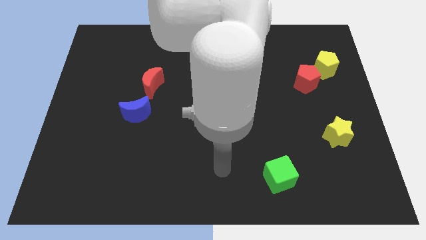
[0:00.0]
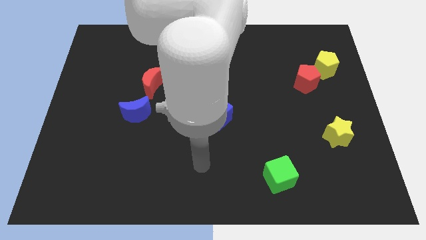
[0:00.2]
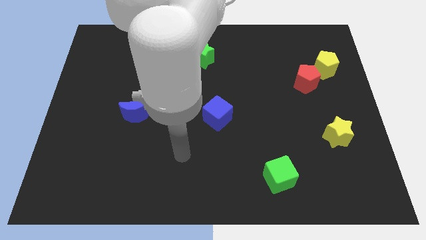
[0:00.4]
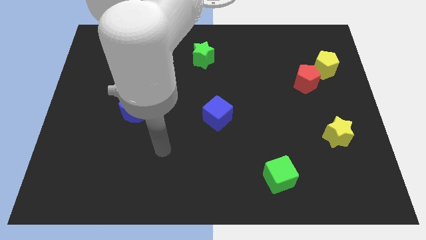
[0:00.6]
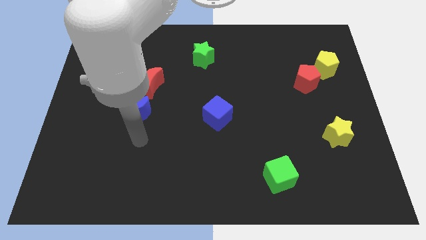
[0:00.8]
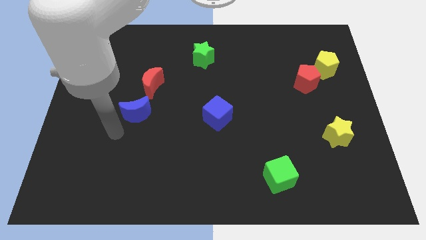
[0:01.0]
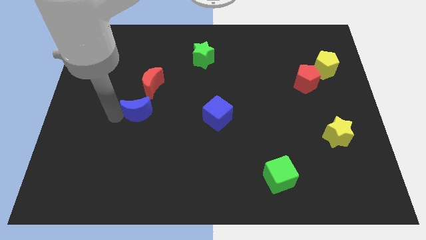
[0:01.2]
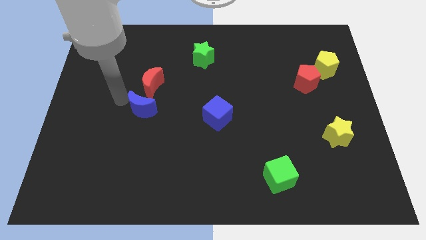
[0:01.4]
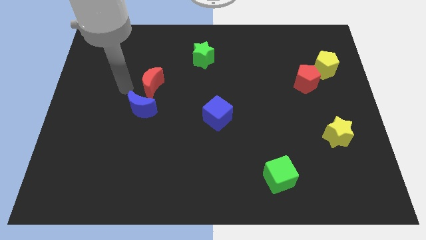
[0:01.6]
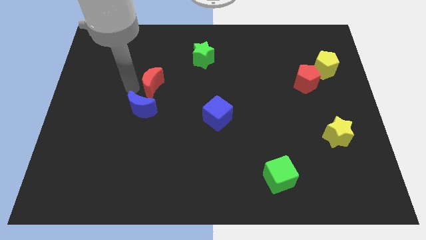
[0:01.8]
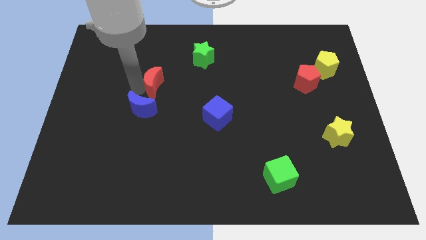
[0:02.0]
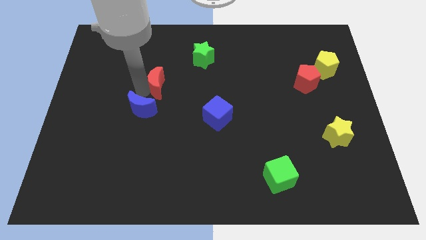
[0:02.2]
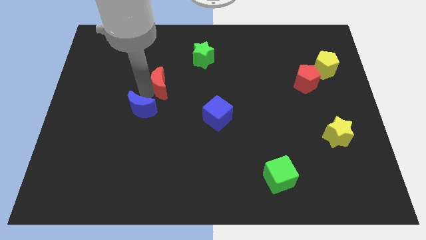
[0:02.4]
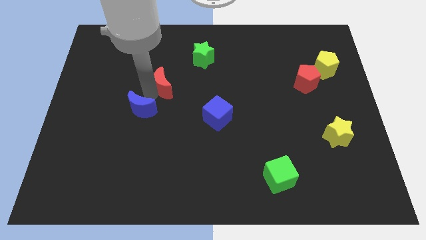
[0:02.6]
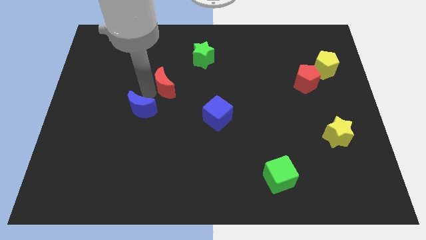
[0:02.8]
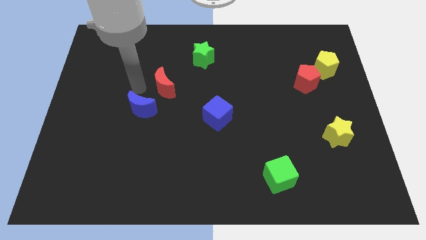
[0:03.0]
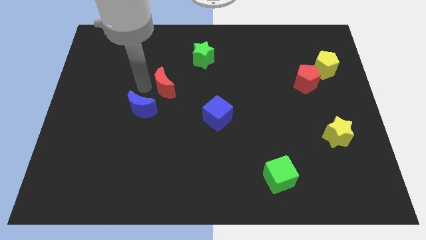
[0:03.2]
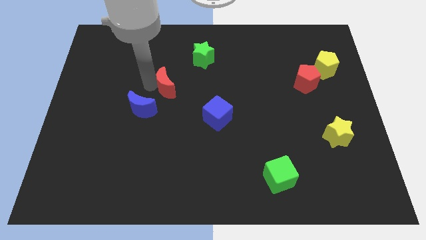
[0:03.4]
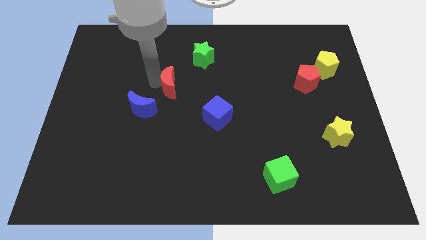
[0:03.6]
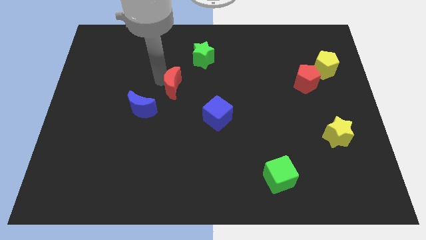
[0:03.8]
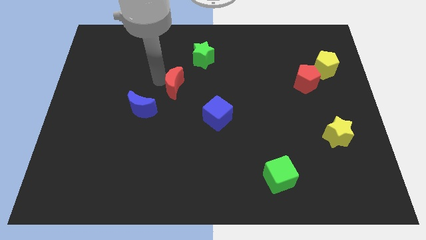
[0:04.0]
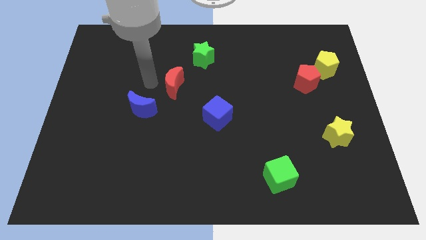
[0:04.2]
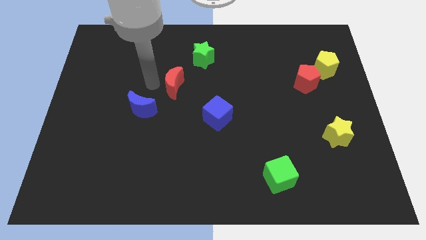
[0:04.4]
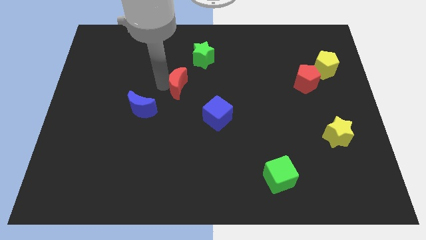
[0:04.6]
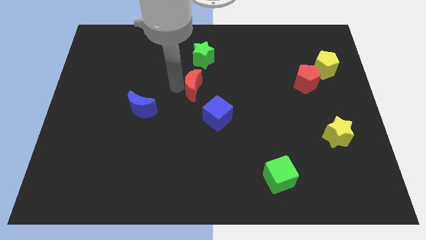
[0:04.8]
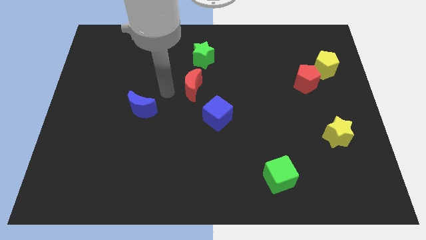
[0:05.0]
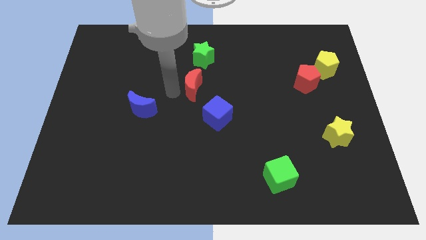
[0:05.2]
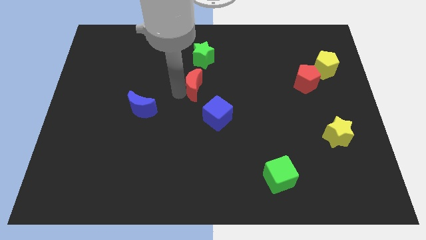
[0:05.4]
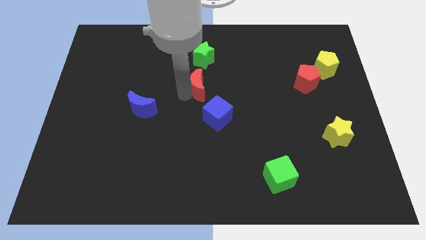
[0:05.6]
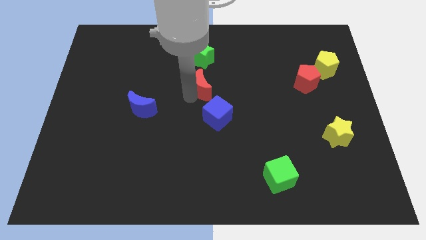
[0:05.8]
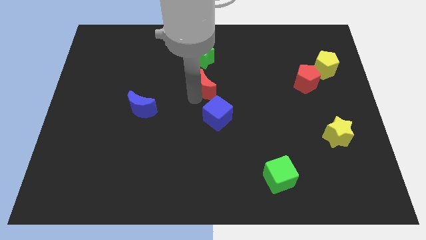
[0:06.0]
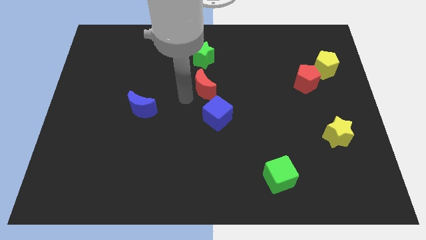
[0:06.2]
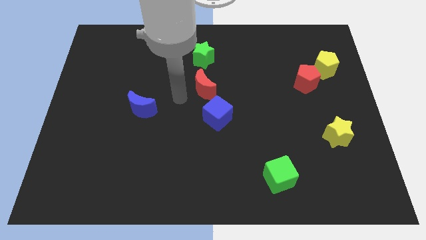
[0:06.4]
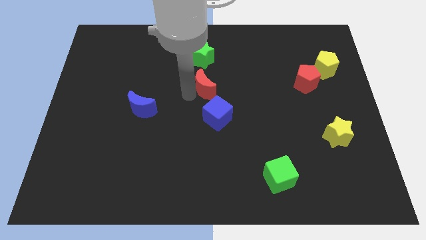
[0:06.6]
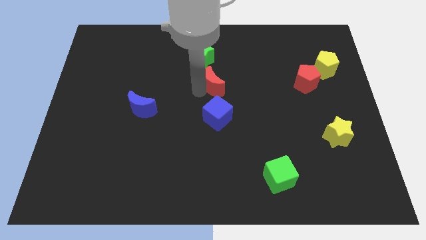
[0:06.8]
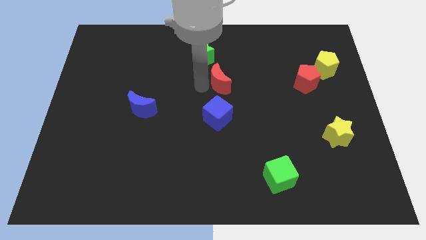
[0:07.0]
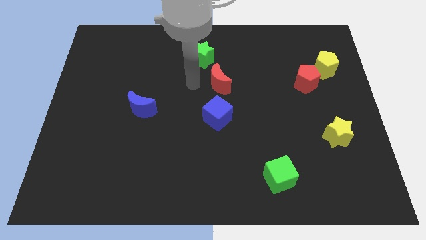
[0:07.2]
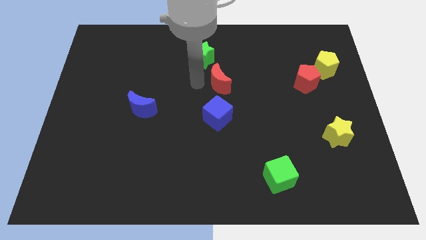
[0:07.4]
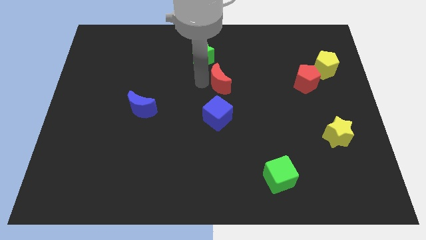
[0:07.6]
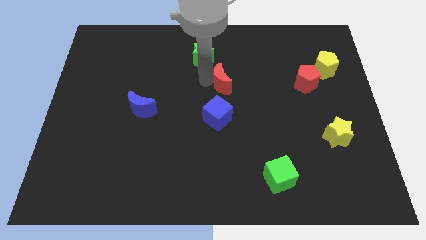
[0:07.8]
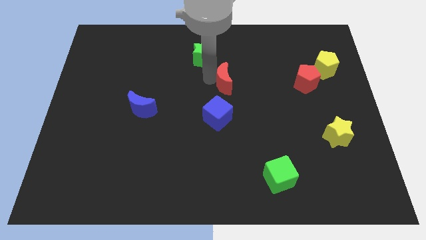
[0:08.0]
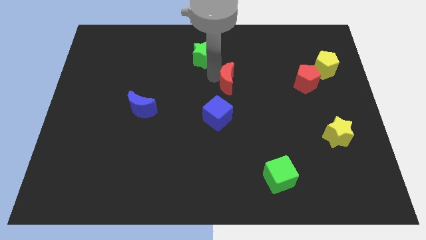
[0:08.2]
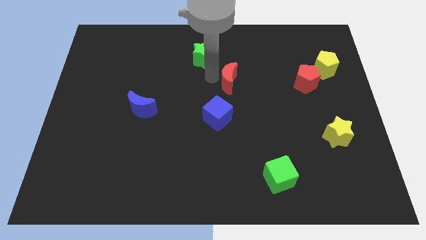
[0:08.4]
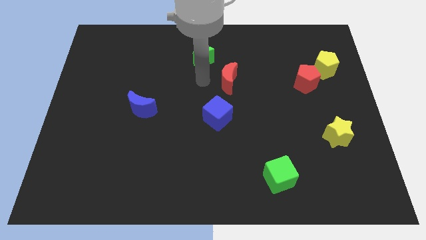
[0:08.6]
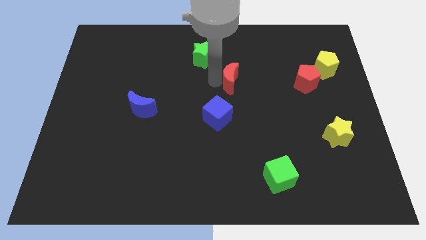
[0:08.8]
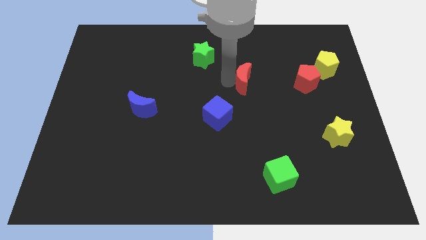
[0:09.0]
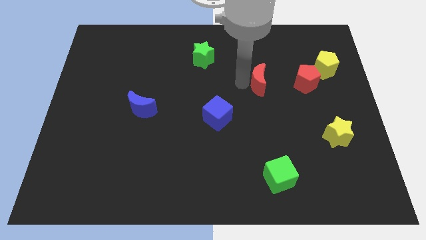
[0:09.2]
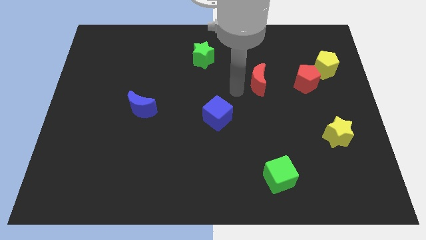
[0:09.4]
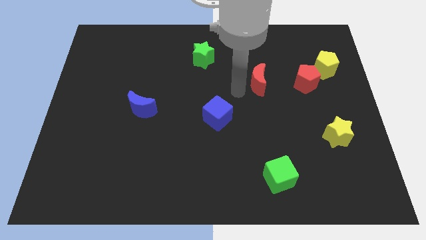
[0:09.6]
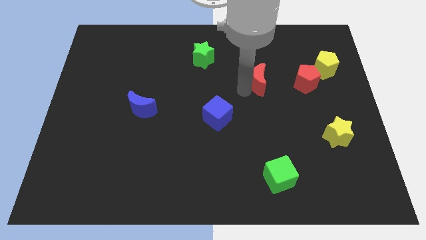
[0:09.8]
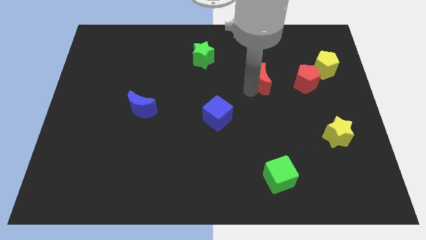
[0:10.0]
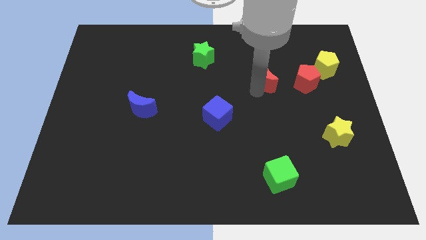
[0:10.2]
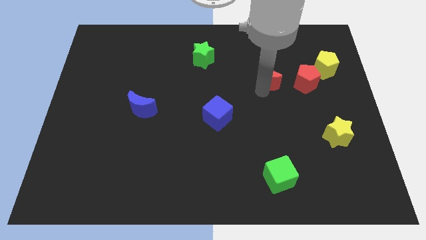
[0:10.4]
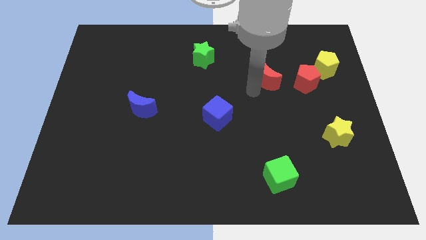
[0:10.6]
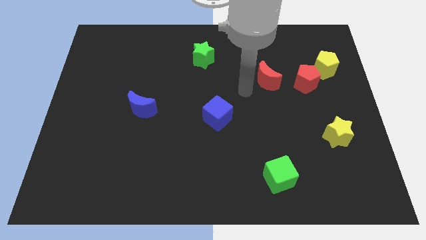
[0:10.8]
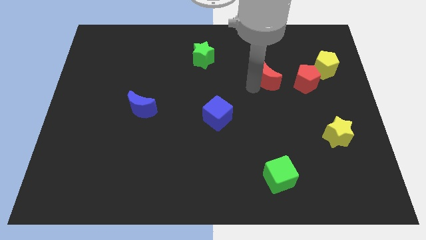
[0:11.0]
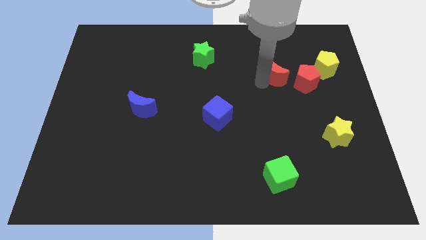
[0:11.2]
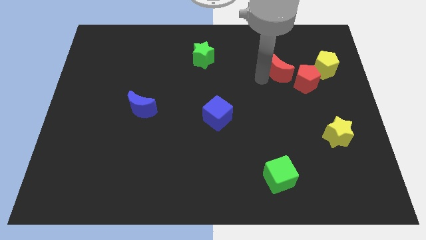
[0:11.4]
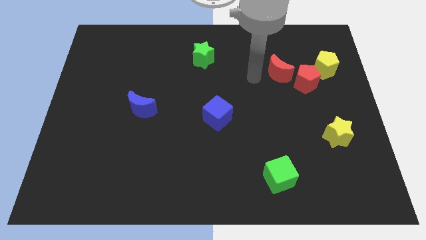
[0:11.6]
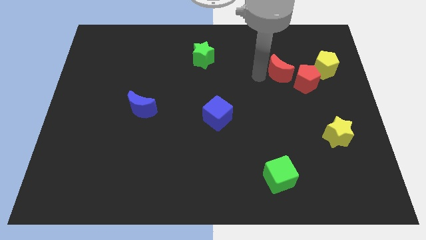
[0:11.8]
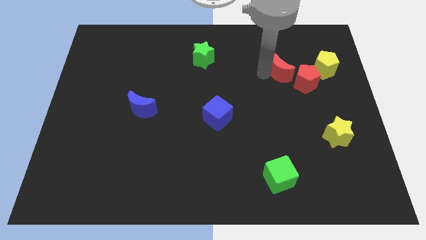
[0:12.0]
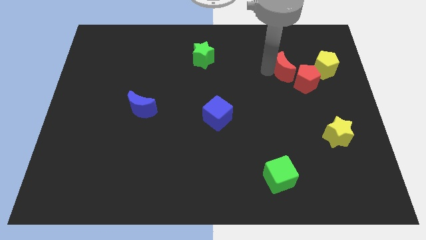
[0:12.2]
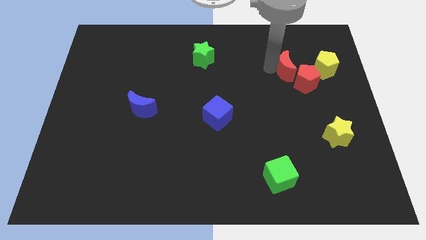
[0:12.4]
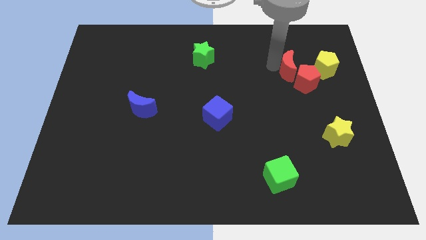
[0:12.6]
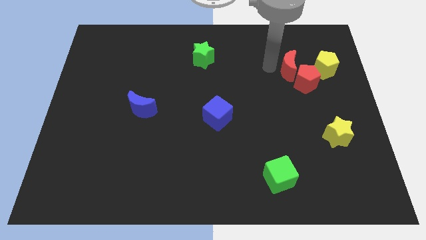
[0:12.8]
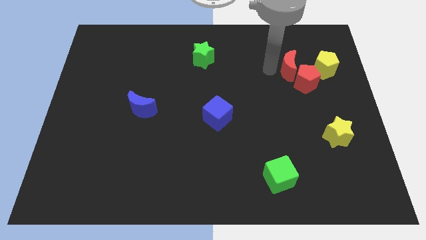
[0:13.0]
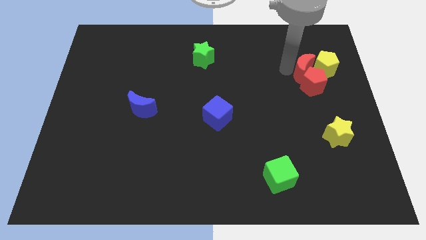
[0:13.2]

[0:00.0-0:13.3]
move the red moon close to the yellow pentagon

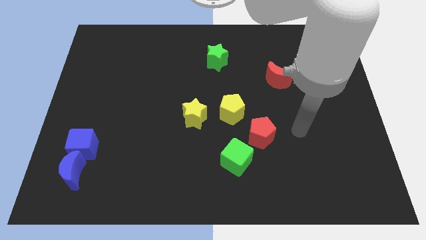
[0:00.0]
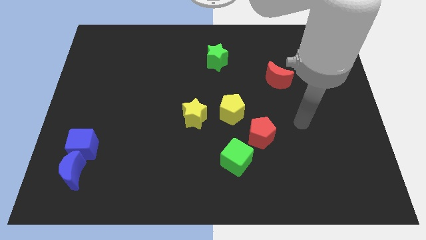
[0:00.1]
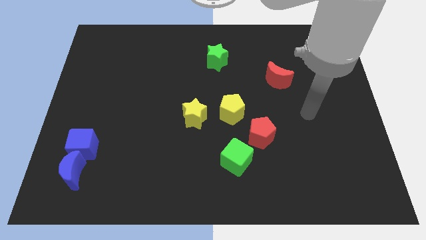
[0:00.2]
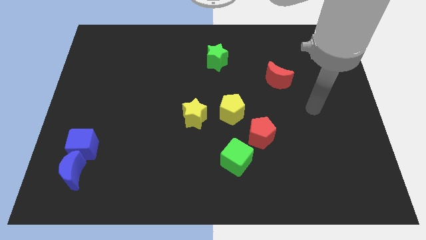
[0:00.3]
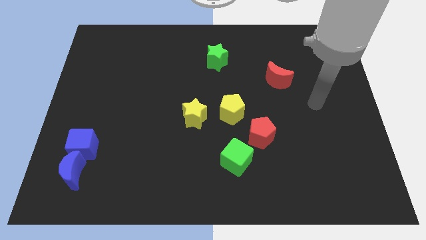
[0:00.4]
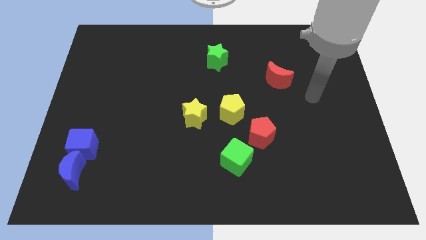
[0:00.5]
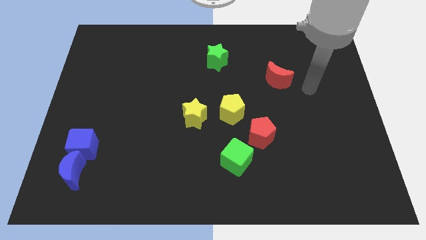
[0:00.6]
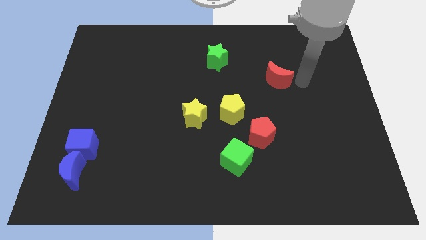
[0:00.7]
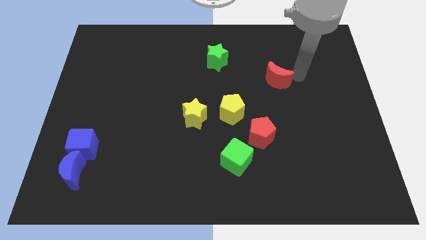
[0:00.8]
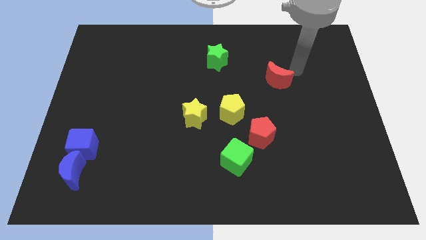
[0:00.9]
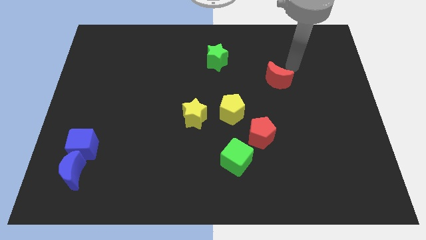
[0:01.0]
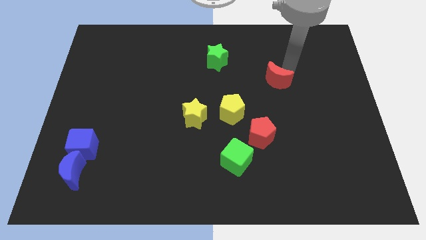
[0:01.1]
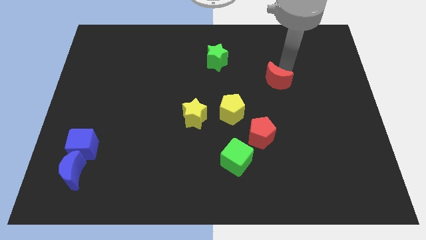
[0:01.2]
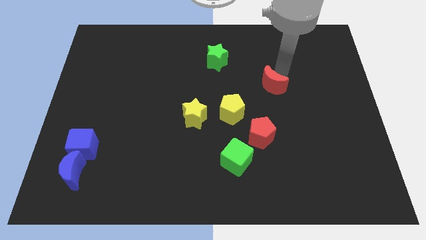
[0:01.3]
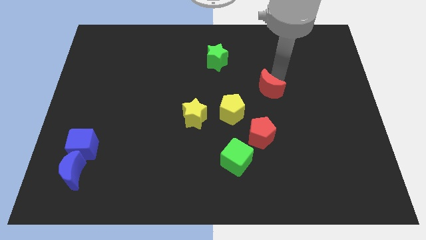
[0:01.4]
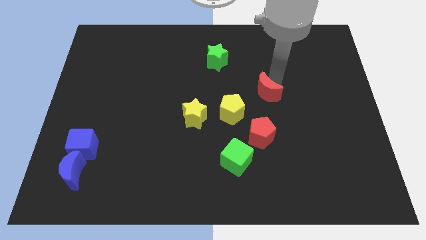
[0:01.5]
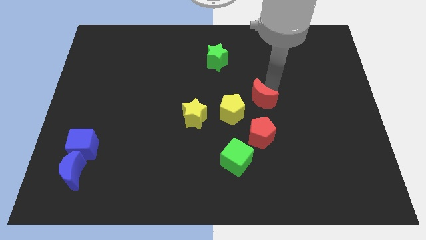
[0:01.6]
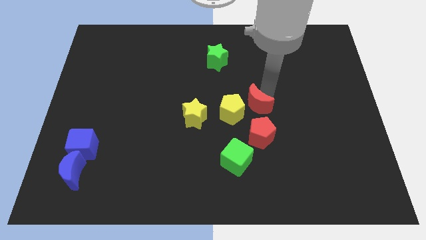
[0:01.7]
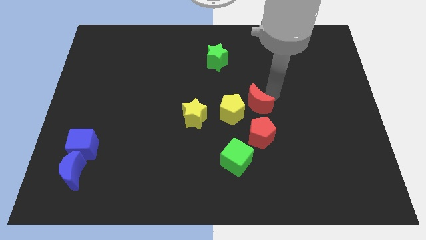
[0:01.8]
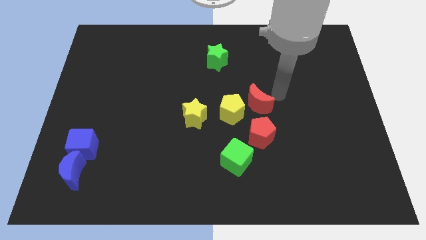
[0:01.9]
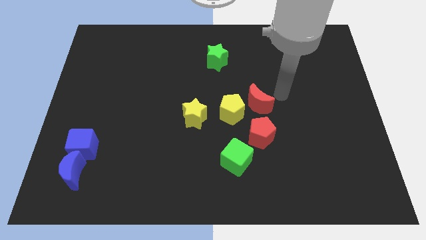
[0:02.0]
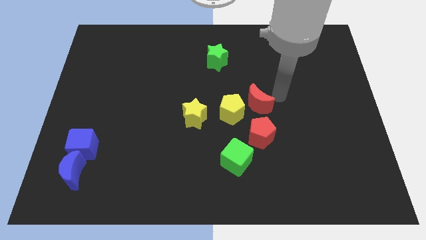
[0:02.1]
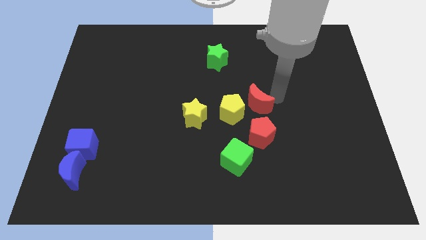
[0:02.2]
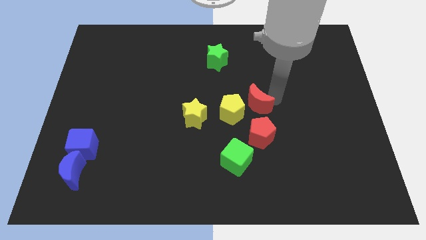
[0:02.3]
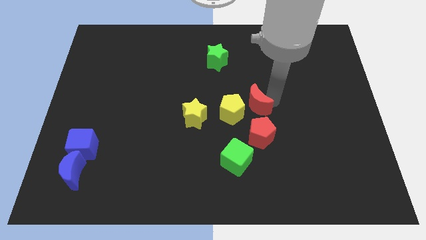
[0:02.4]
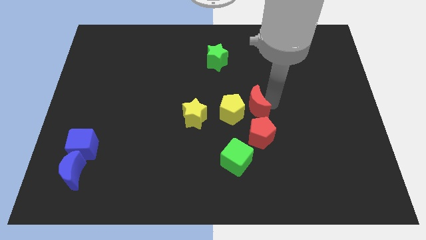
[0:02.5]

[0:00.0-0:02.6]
push the red moon towards the yellow pentagon
